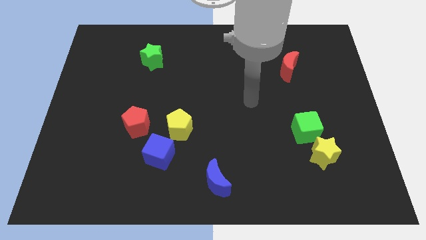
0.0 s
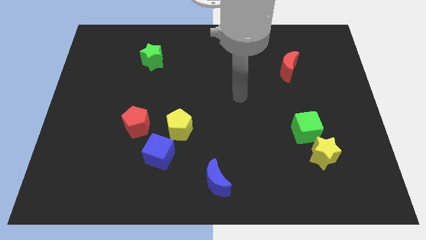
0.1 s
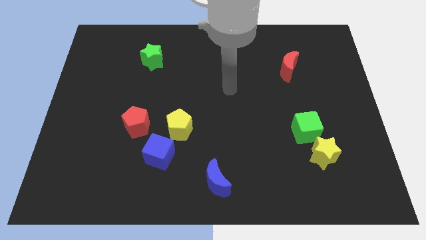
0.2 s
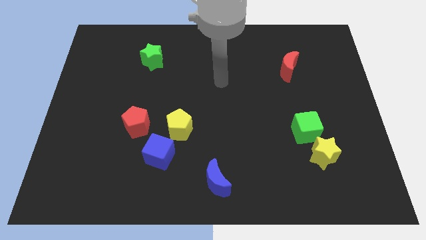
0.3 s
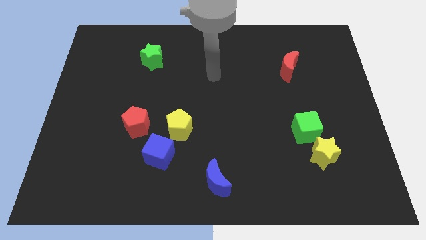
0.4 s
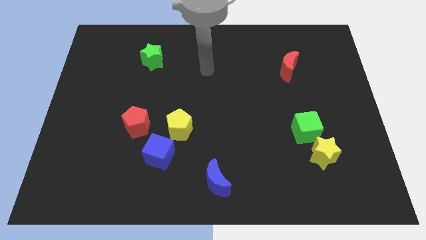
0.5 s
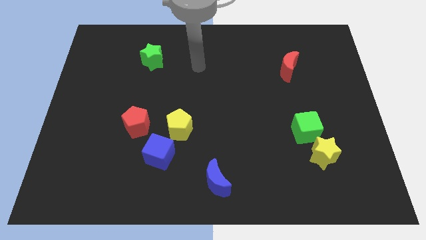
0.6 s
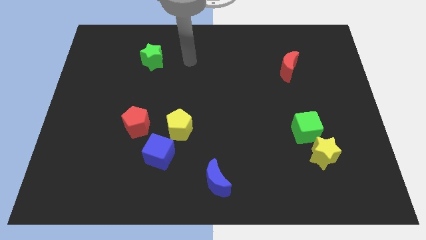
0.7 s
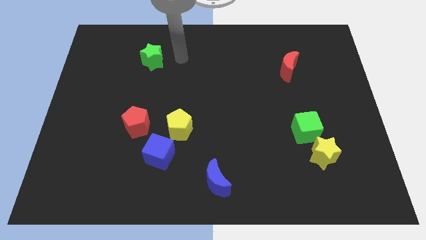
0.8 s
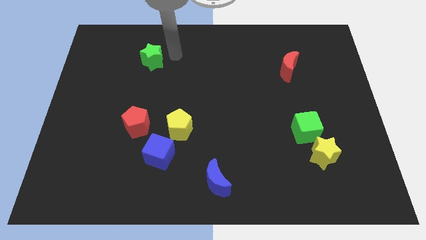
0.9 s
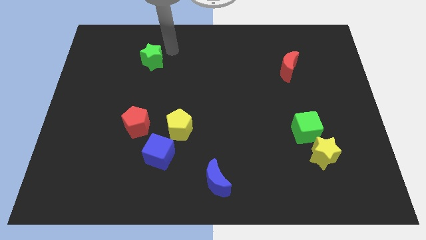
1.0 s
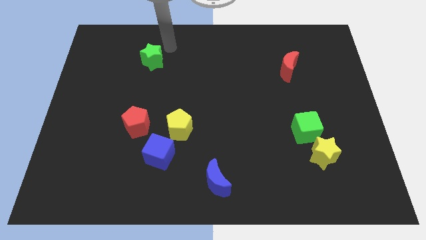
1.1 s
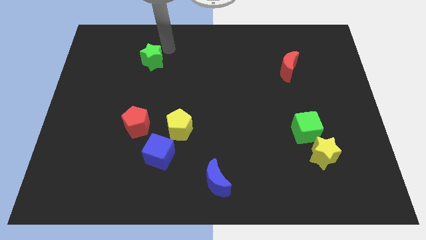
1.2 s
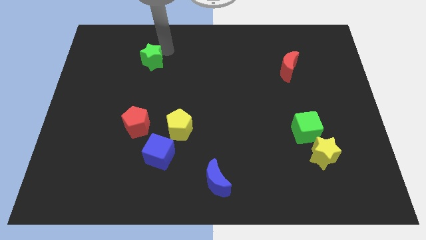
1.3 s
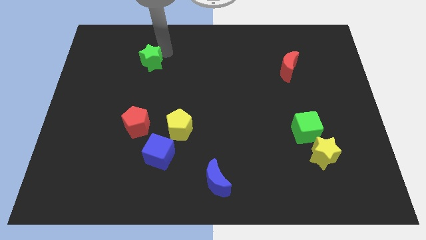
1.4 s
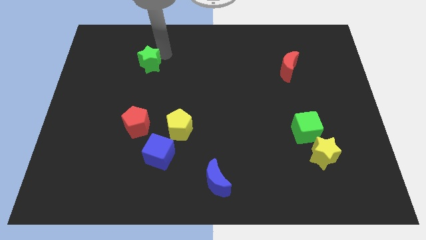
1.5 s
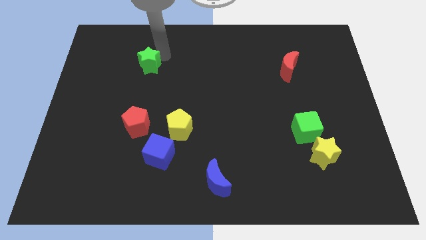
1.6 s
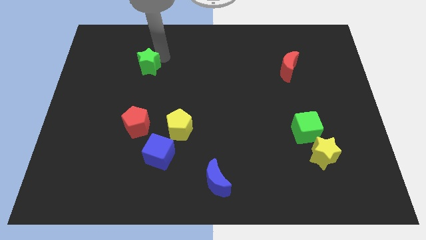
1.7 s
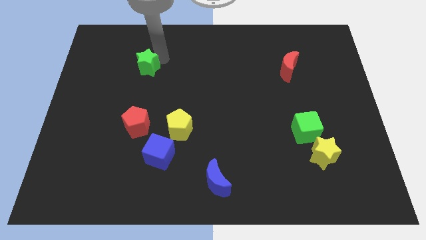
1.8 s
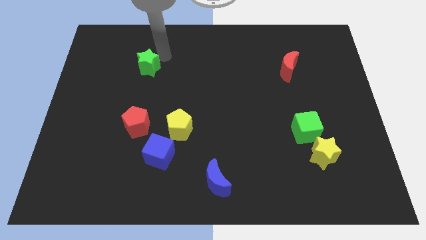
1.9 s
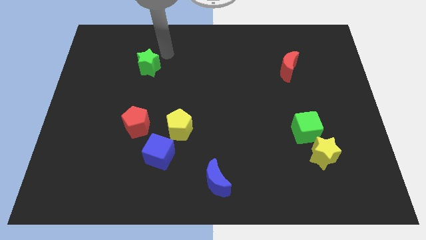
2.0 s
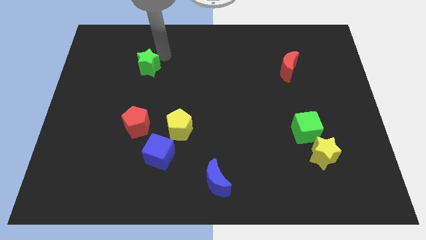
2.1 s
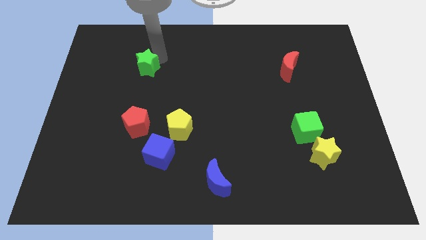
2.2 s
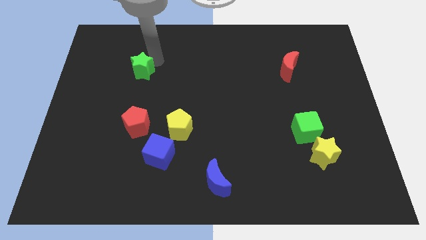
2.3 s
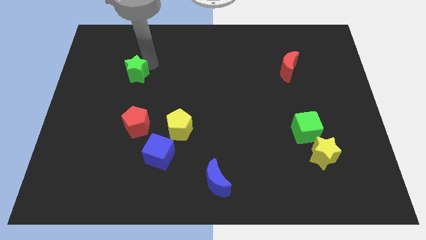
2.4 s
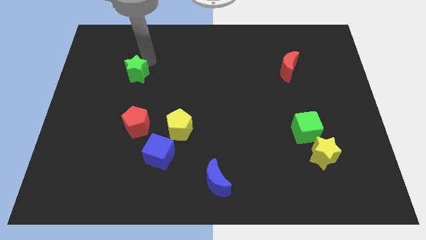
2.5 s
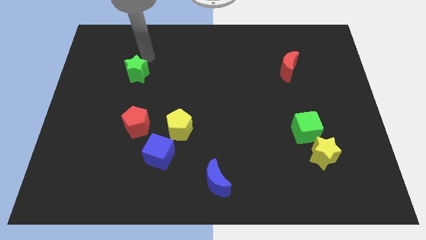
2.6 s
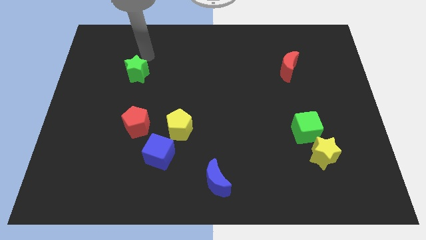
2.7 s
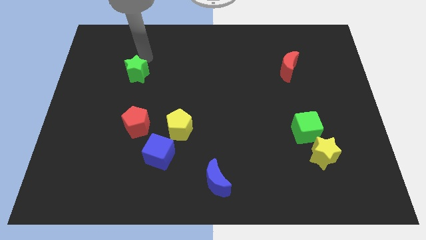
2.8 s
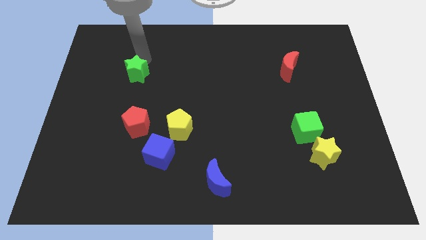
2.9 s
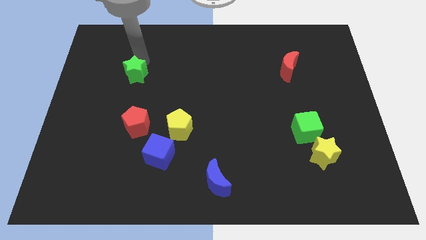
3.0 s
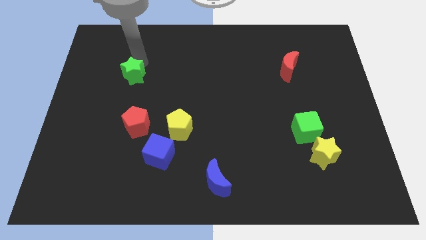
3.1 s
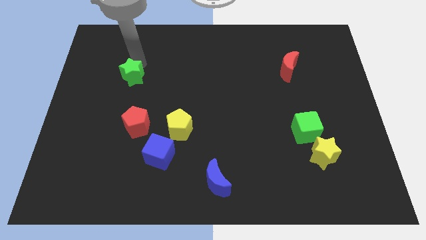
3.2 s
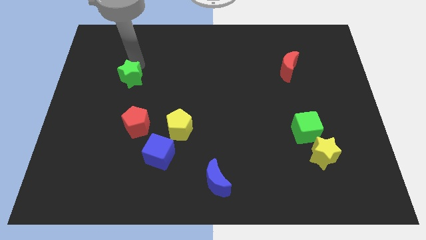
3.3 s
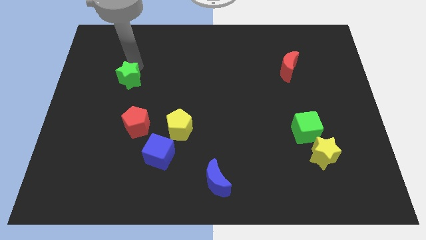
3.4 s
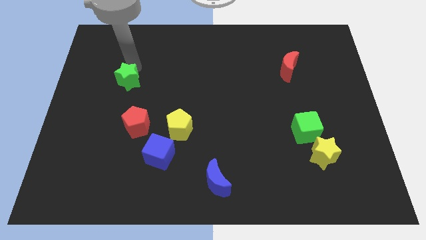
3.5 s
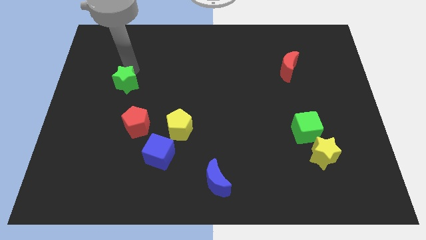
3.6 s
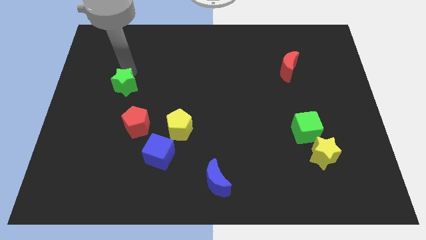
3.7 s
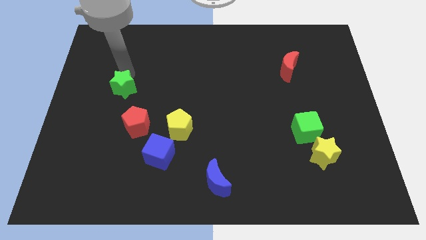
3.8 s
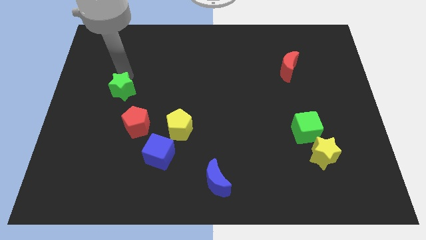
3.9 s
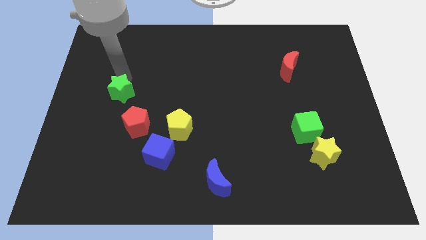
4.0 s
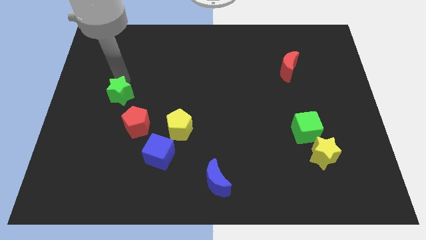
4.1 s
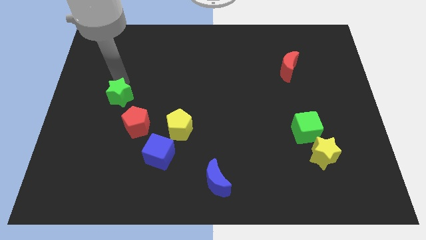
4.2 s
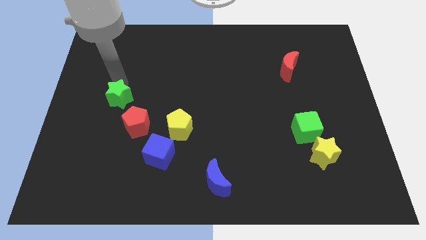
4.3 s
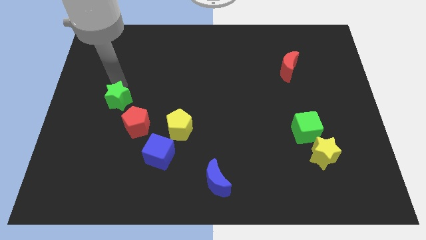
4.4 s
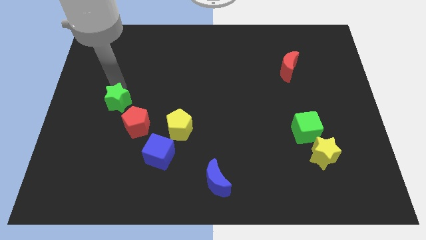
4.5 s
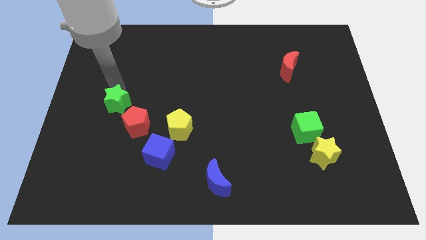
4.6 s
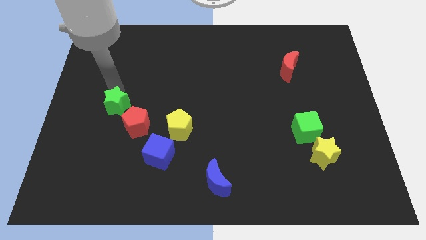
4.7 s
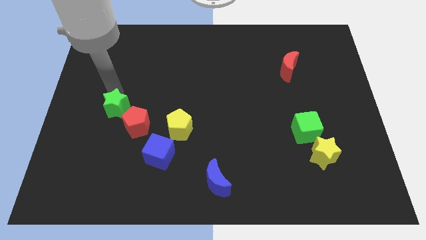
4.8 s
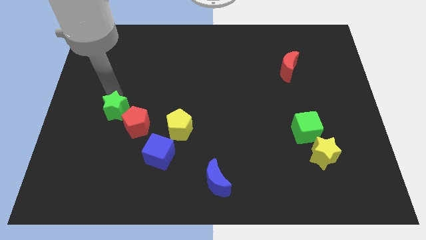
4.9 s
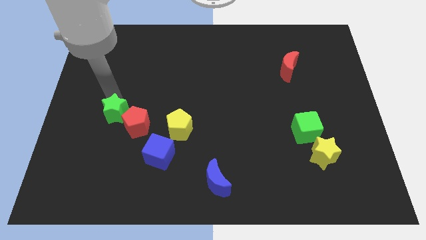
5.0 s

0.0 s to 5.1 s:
push the green star towards the red pentagon

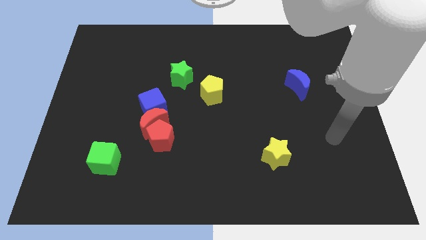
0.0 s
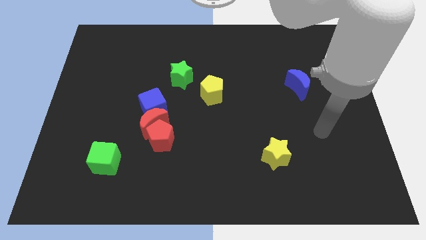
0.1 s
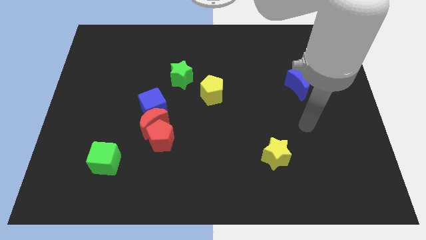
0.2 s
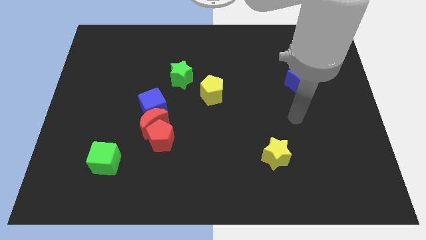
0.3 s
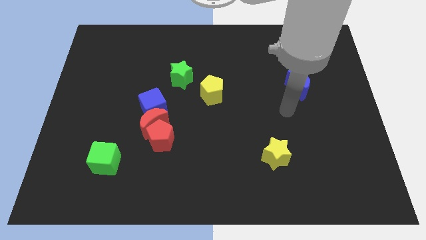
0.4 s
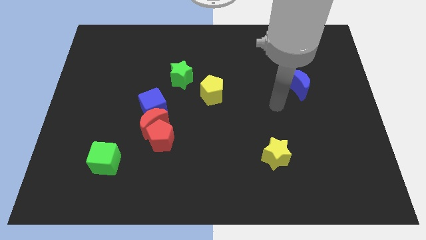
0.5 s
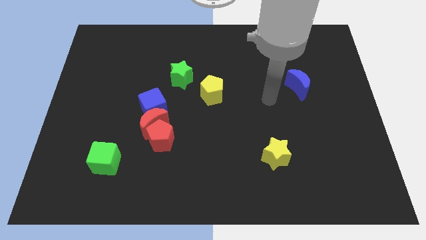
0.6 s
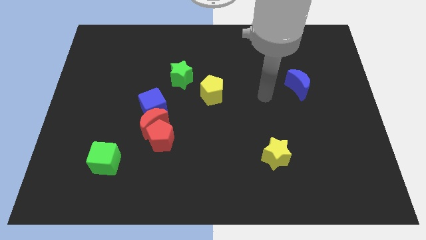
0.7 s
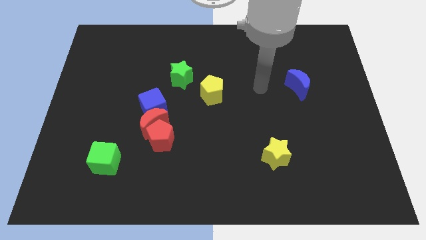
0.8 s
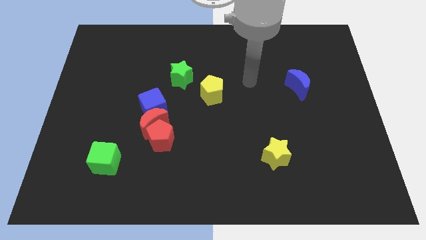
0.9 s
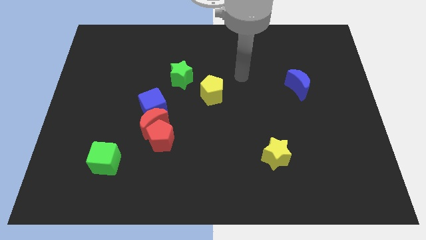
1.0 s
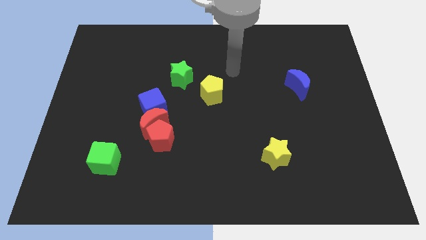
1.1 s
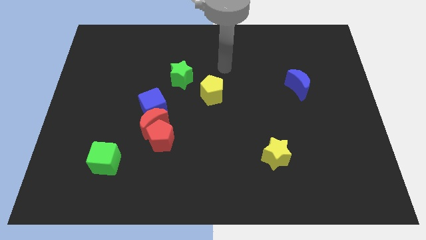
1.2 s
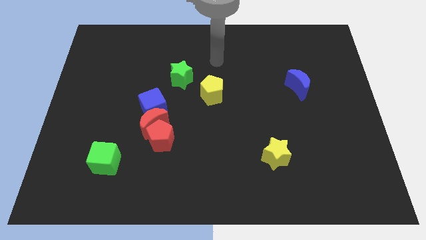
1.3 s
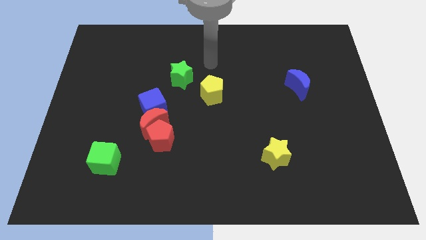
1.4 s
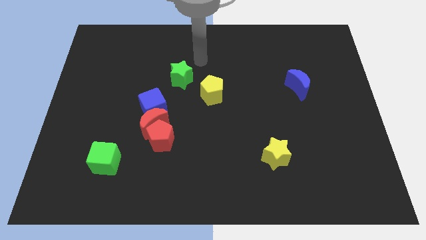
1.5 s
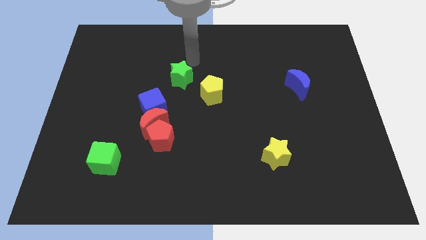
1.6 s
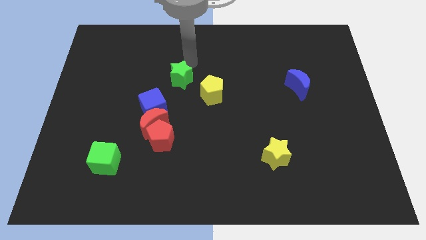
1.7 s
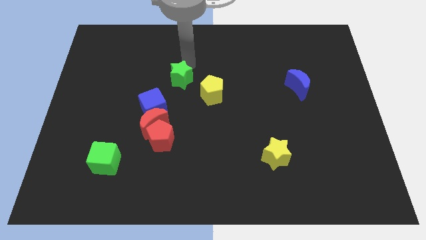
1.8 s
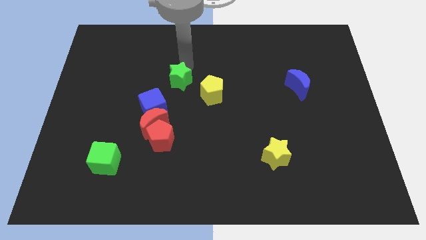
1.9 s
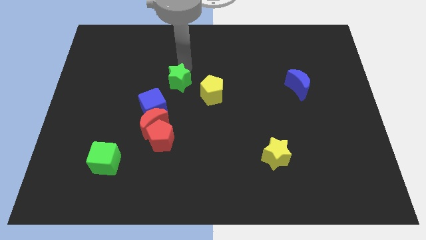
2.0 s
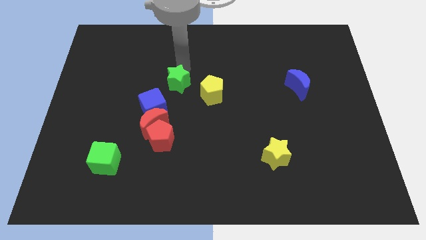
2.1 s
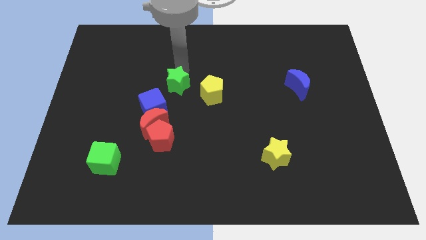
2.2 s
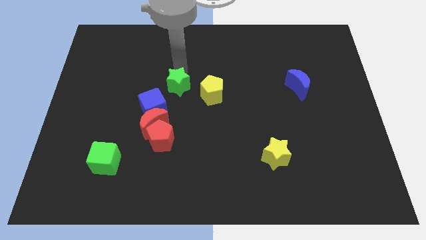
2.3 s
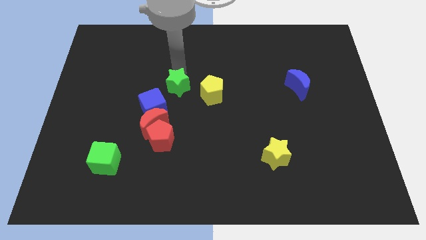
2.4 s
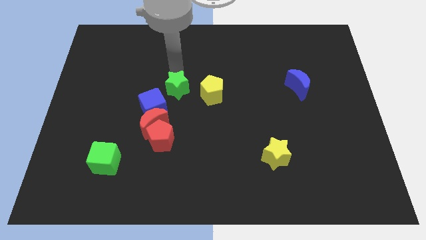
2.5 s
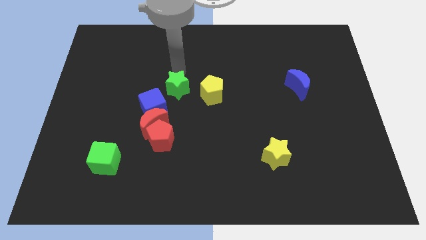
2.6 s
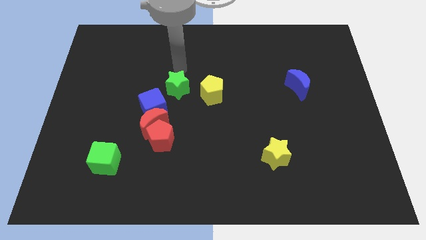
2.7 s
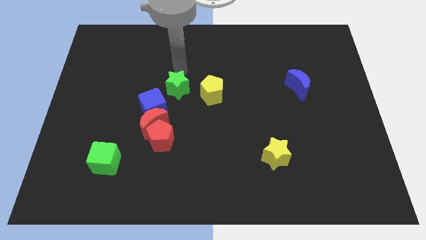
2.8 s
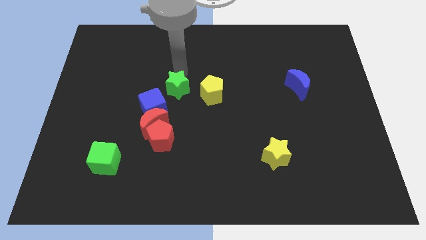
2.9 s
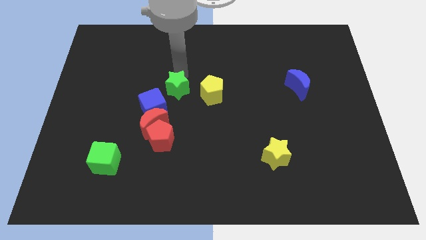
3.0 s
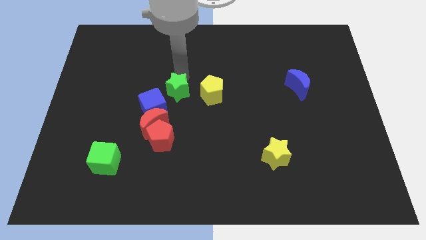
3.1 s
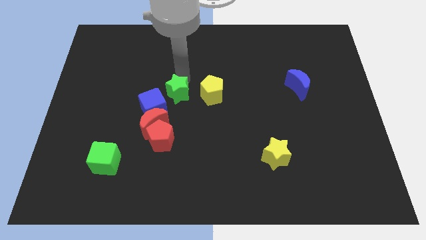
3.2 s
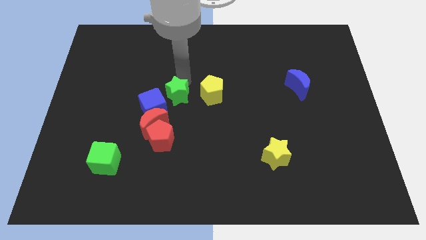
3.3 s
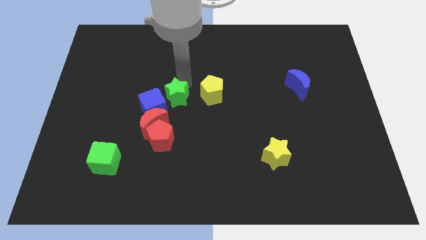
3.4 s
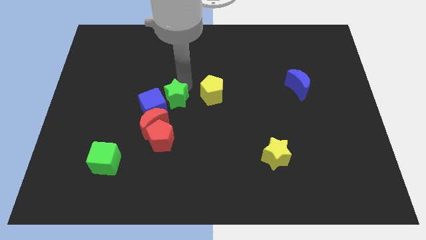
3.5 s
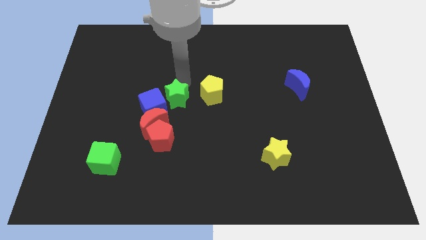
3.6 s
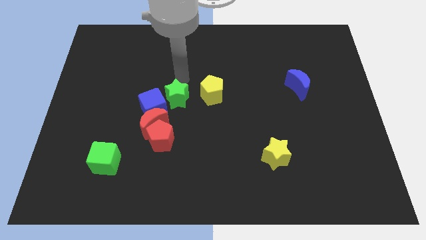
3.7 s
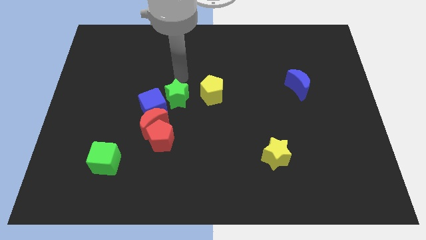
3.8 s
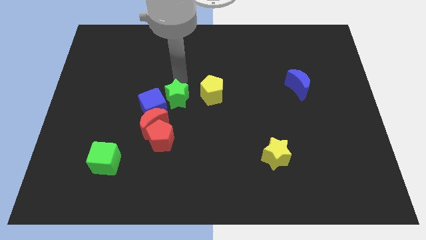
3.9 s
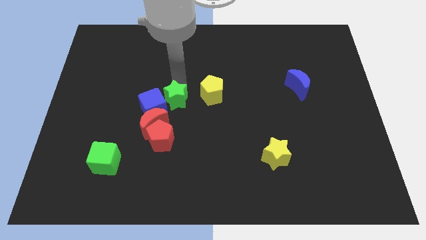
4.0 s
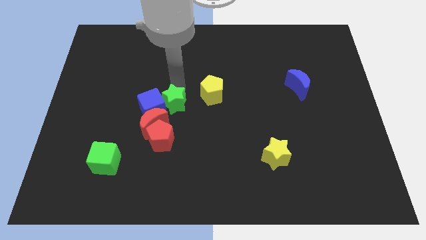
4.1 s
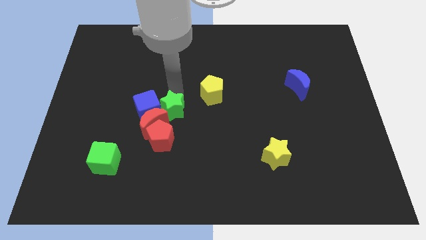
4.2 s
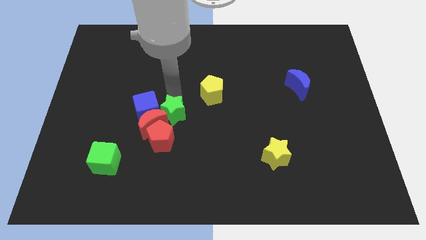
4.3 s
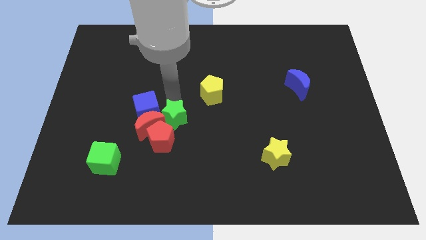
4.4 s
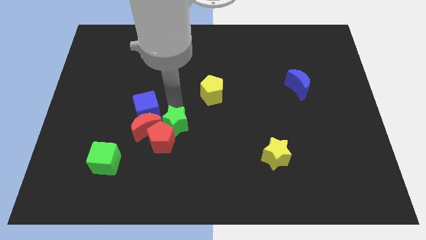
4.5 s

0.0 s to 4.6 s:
push the green star to the red pentagon
